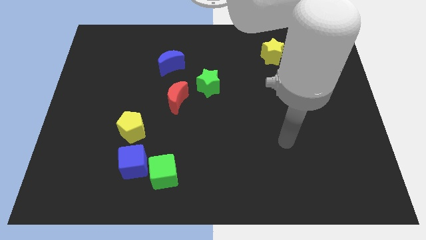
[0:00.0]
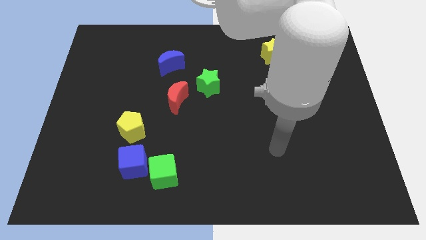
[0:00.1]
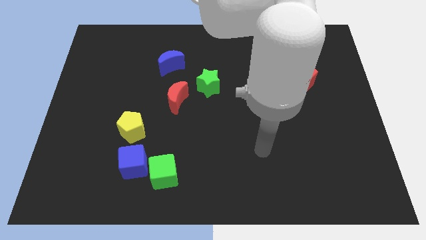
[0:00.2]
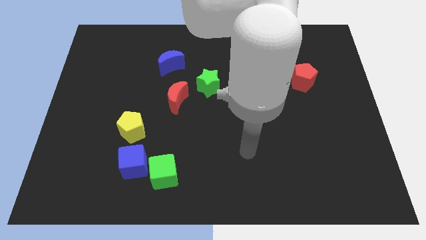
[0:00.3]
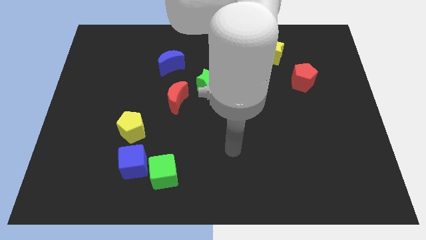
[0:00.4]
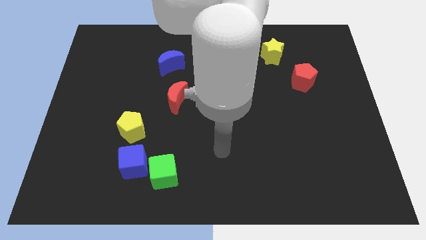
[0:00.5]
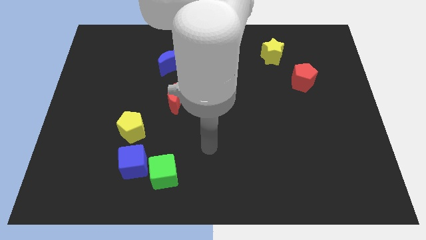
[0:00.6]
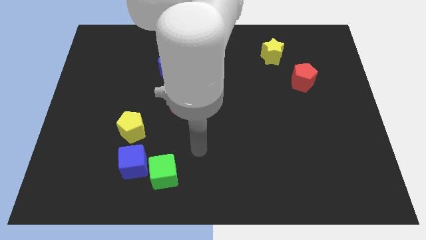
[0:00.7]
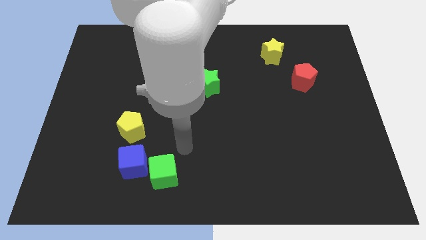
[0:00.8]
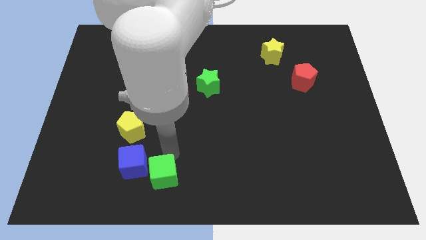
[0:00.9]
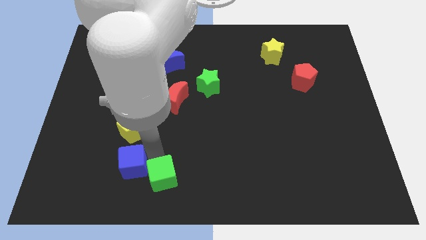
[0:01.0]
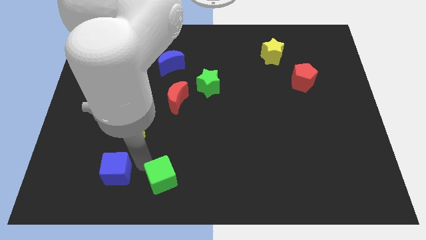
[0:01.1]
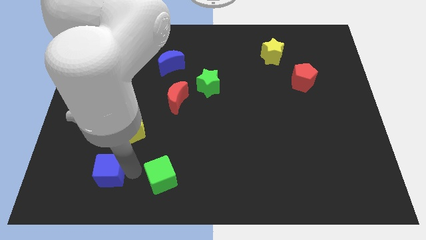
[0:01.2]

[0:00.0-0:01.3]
separate the green cube from the blue cube

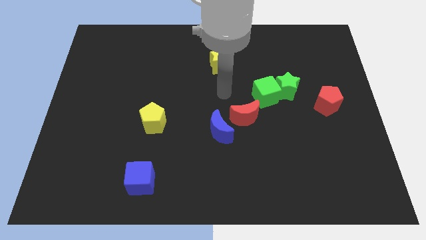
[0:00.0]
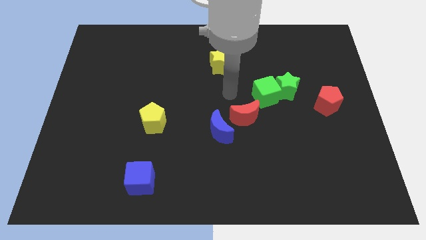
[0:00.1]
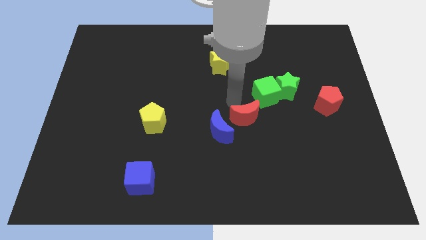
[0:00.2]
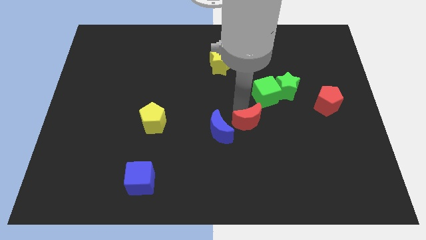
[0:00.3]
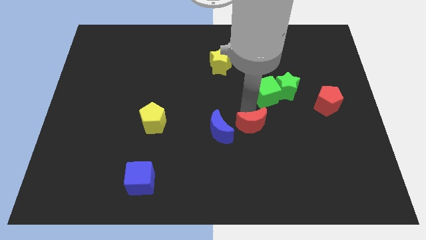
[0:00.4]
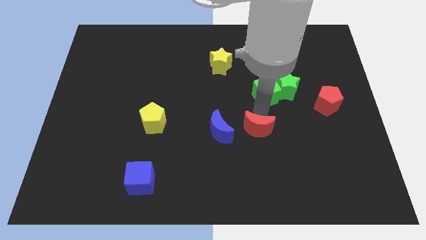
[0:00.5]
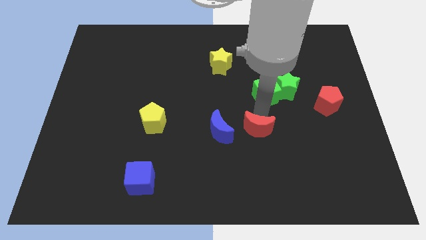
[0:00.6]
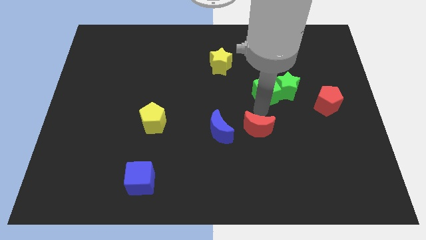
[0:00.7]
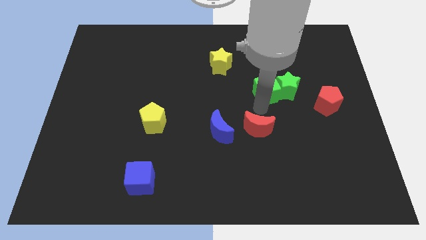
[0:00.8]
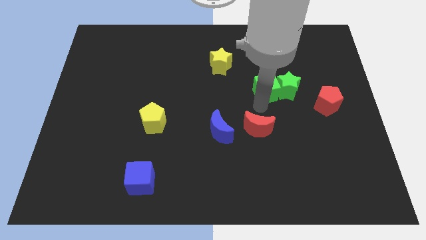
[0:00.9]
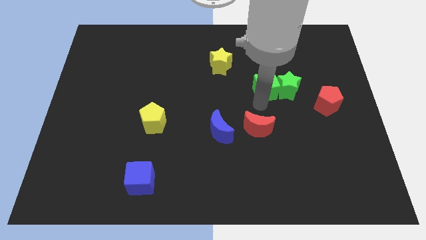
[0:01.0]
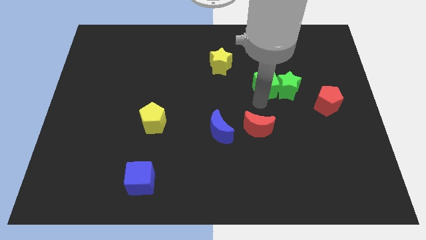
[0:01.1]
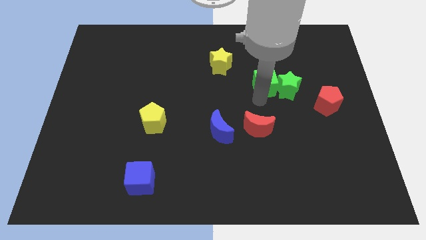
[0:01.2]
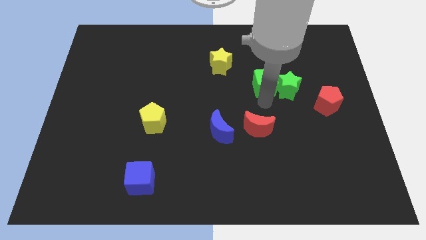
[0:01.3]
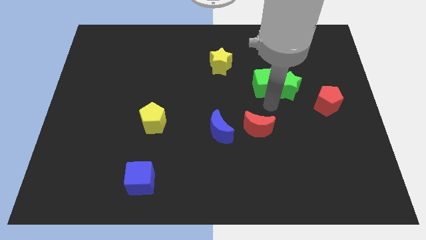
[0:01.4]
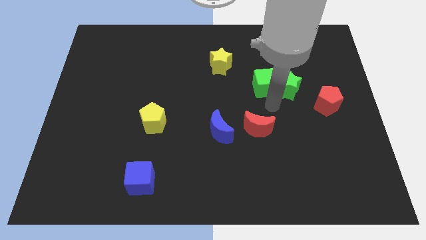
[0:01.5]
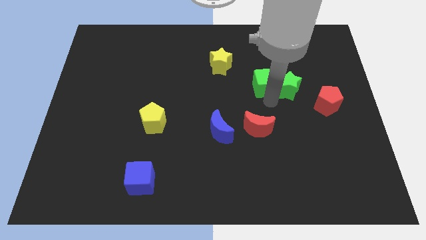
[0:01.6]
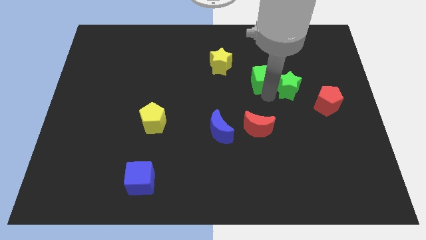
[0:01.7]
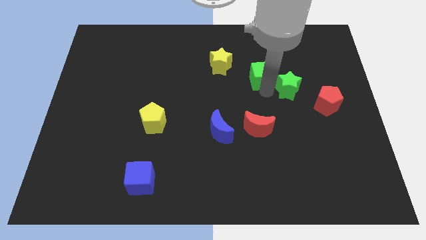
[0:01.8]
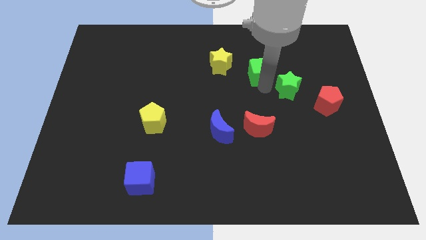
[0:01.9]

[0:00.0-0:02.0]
separate the green cube from the green star and red moon

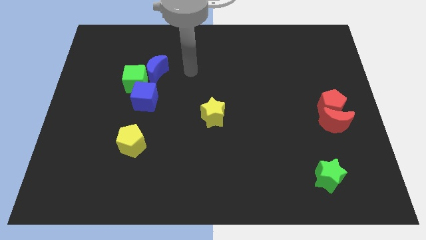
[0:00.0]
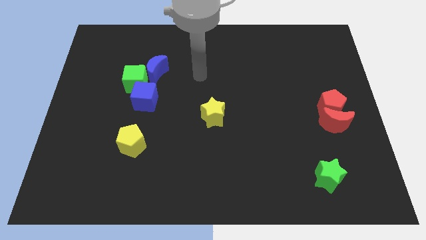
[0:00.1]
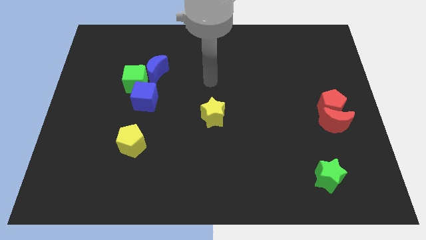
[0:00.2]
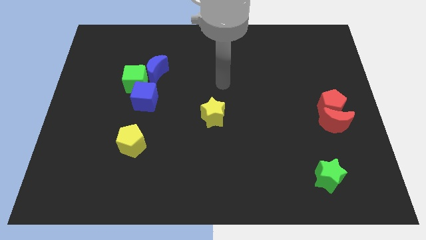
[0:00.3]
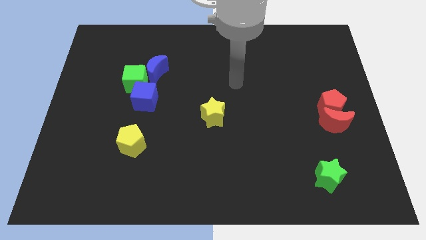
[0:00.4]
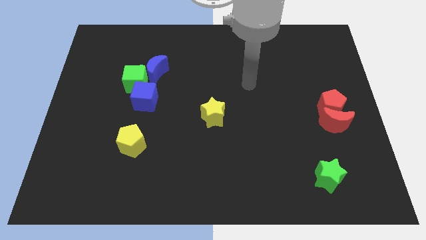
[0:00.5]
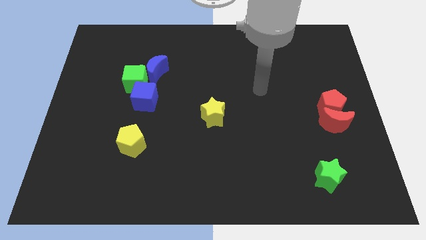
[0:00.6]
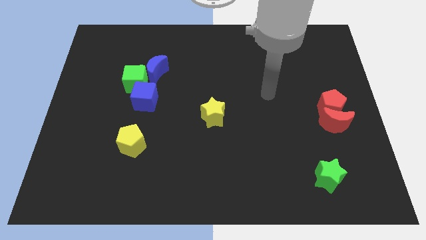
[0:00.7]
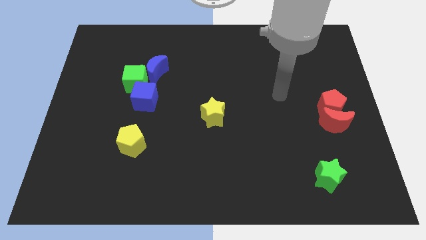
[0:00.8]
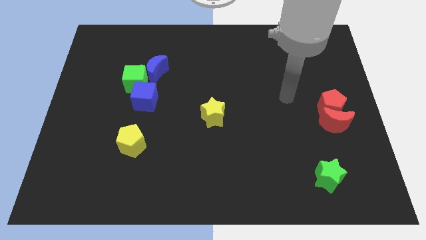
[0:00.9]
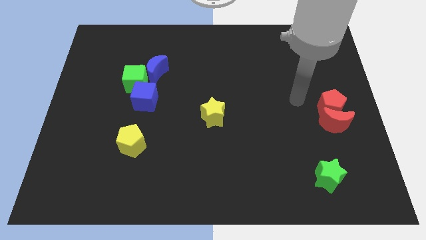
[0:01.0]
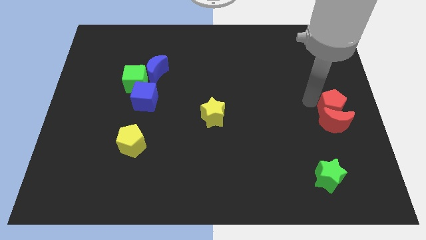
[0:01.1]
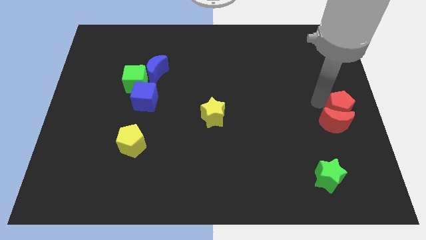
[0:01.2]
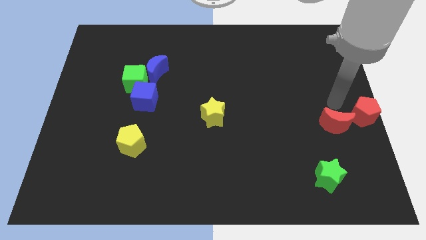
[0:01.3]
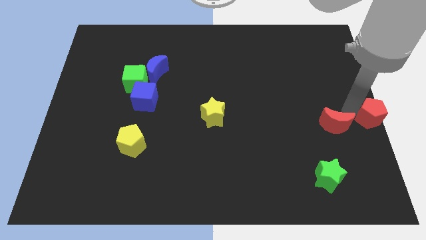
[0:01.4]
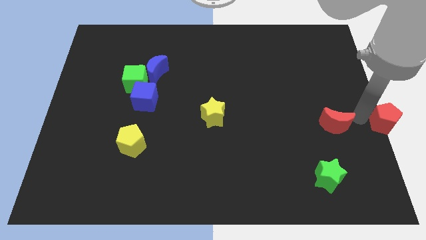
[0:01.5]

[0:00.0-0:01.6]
separate the red moon from the red pentagon

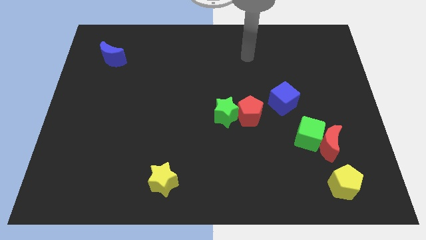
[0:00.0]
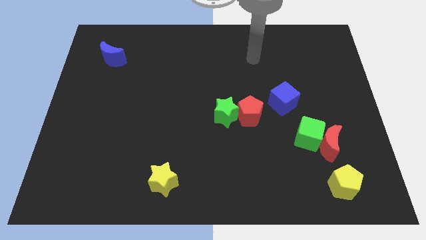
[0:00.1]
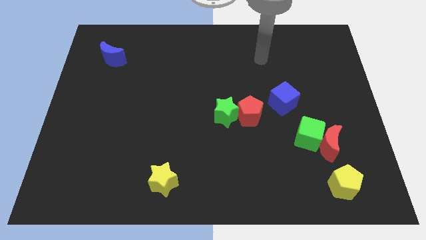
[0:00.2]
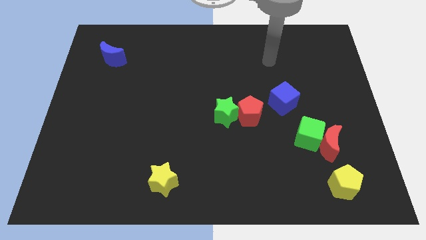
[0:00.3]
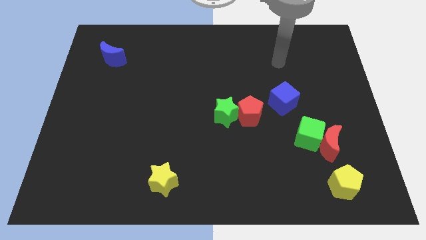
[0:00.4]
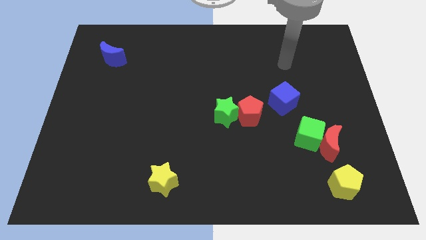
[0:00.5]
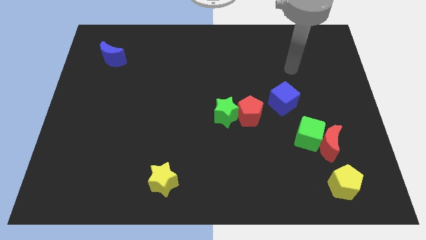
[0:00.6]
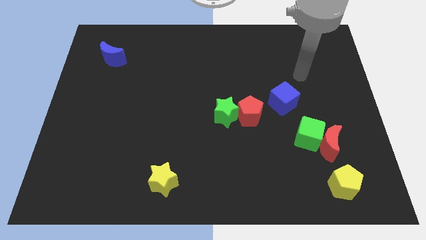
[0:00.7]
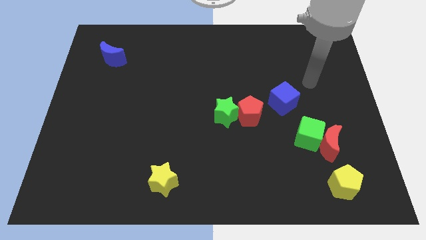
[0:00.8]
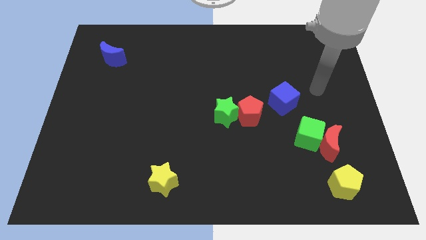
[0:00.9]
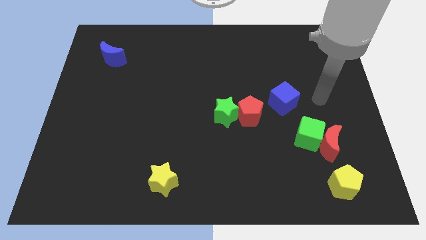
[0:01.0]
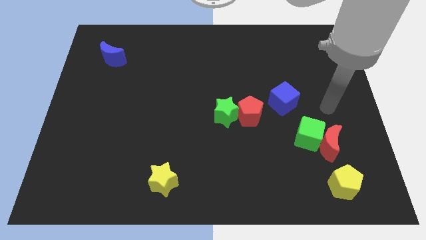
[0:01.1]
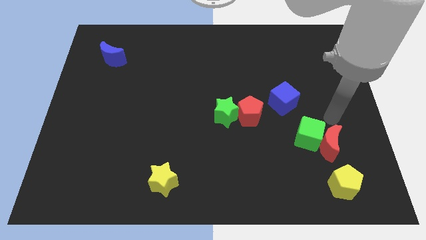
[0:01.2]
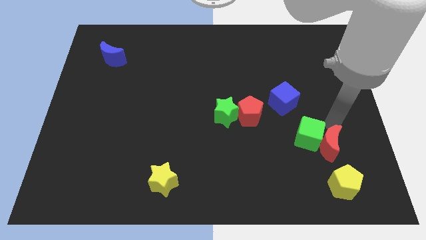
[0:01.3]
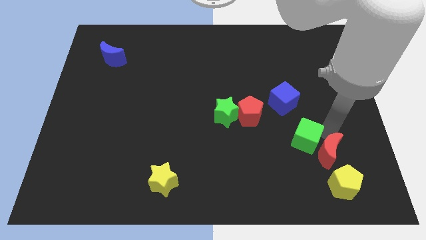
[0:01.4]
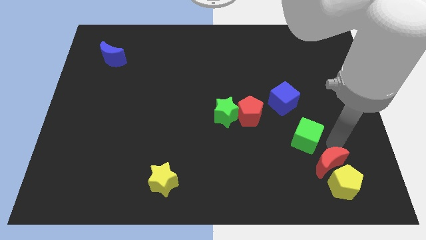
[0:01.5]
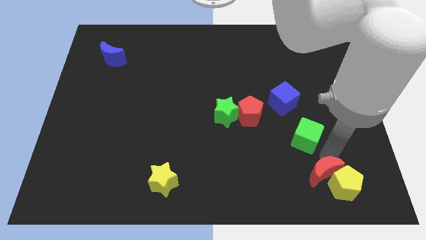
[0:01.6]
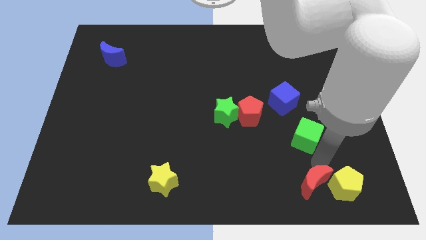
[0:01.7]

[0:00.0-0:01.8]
pull the green cube apart from the red moon

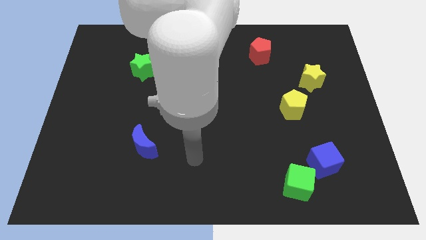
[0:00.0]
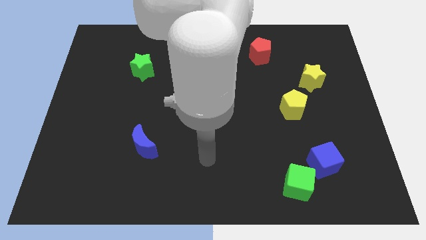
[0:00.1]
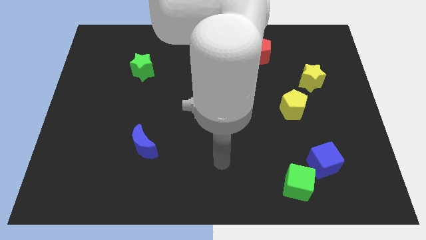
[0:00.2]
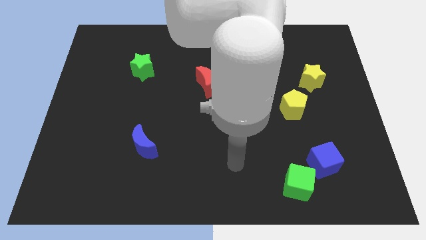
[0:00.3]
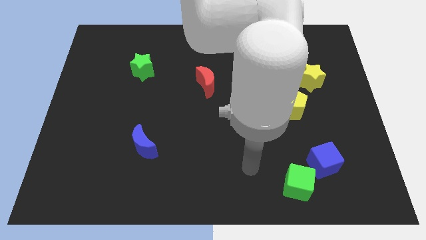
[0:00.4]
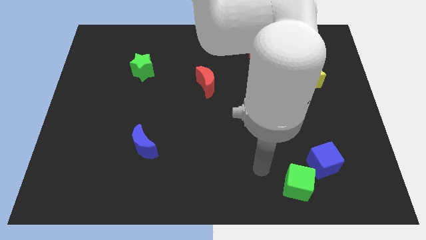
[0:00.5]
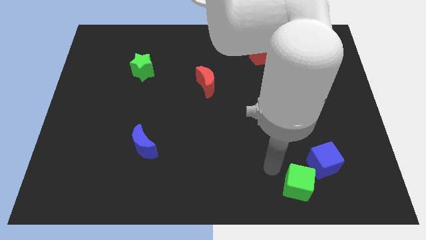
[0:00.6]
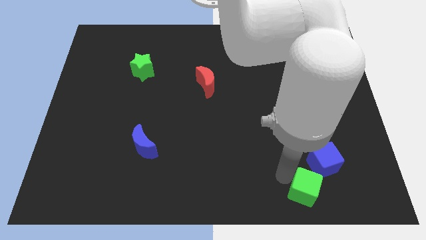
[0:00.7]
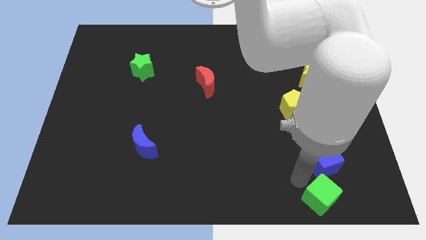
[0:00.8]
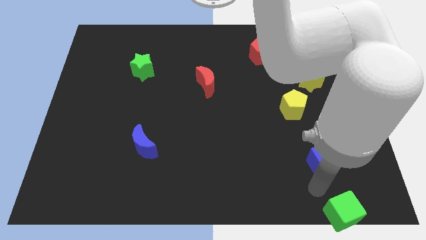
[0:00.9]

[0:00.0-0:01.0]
pull the blue cube apart from the green cube

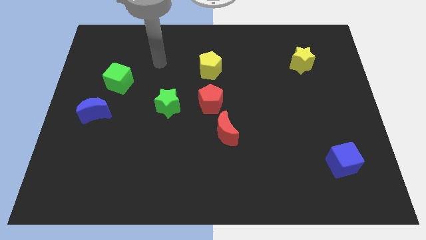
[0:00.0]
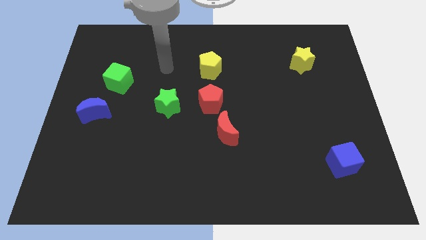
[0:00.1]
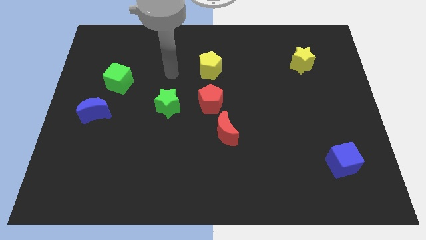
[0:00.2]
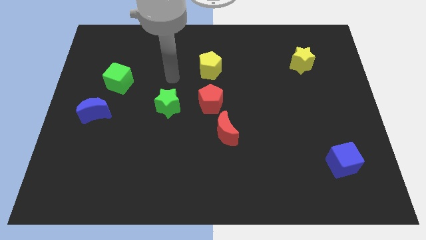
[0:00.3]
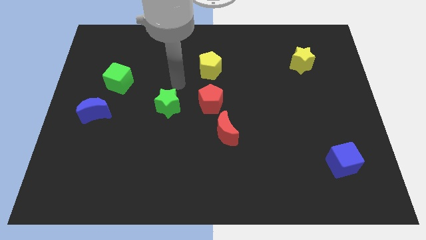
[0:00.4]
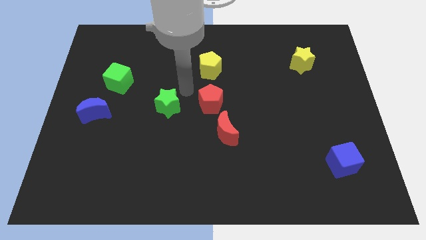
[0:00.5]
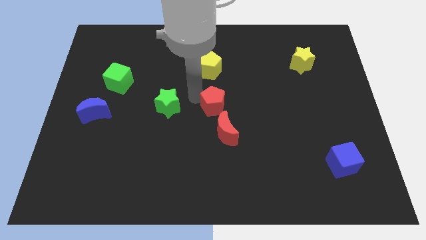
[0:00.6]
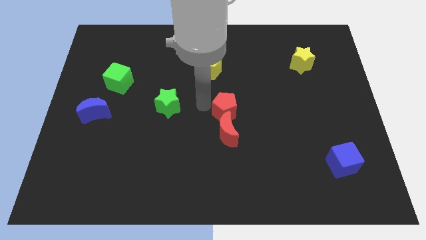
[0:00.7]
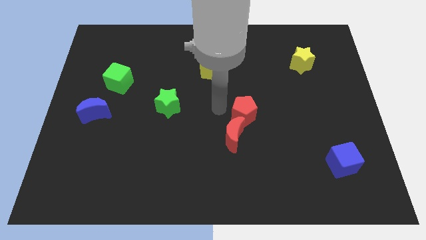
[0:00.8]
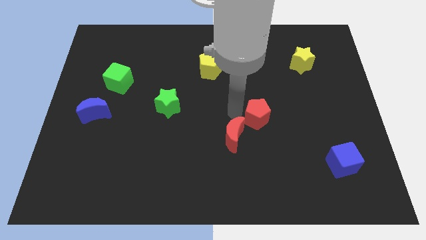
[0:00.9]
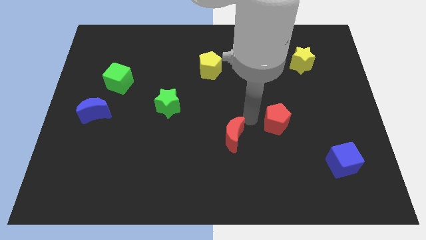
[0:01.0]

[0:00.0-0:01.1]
pull the red moon apart from the red pentagon

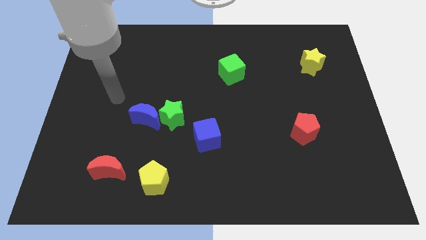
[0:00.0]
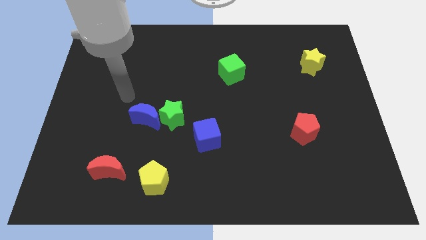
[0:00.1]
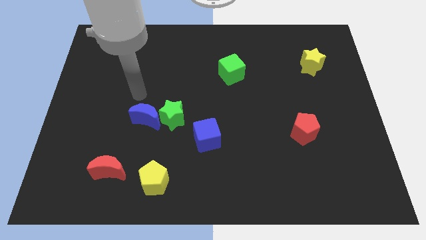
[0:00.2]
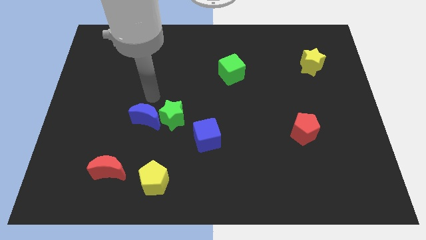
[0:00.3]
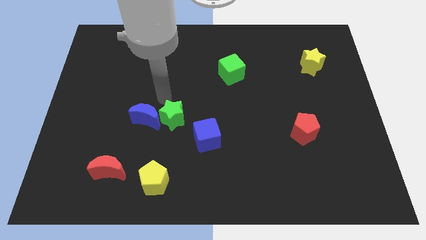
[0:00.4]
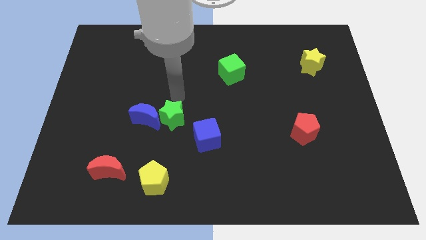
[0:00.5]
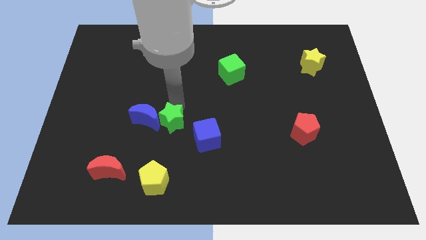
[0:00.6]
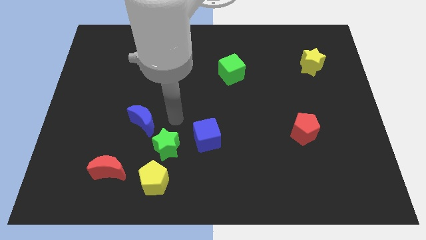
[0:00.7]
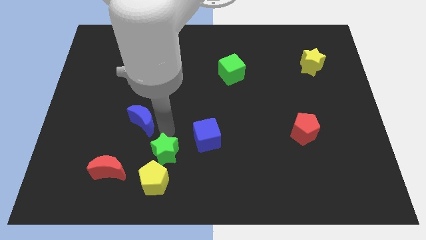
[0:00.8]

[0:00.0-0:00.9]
pull the blue moon apart from the green star
